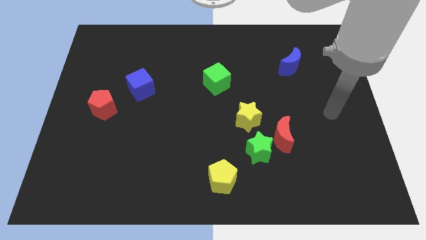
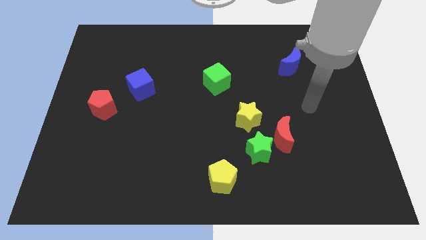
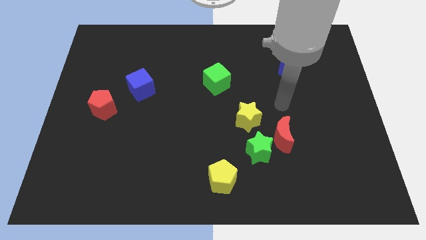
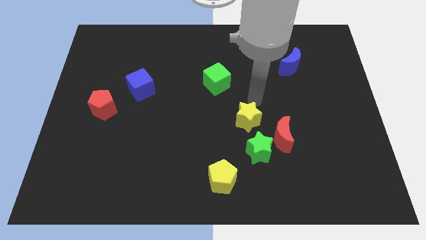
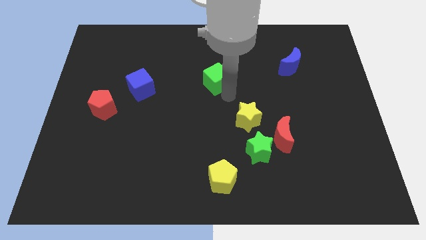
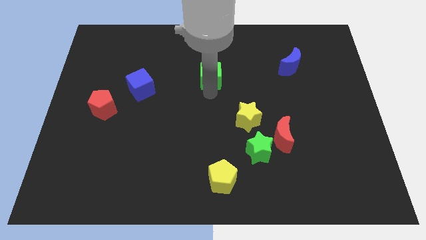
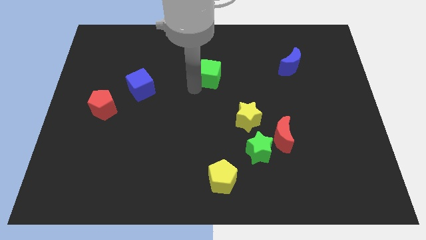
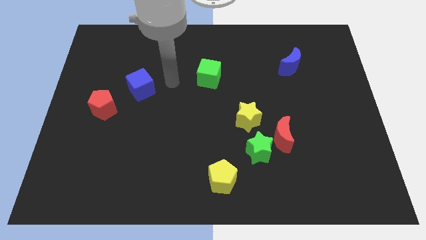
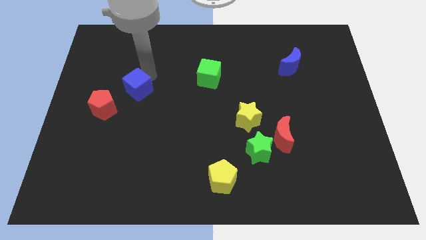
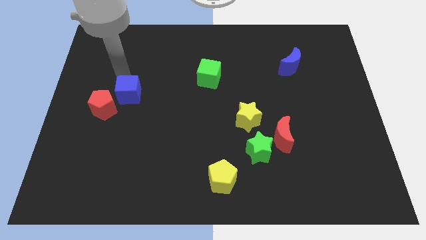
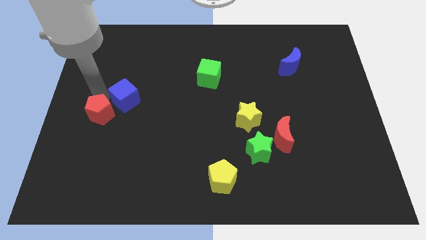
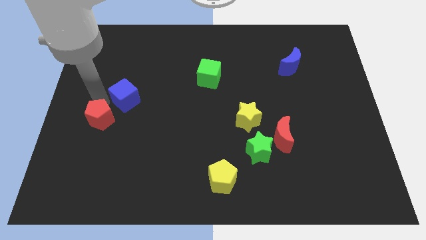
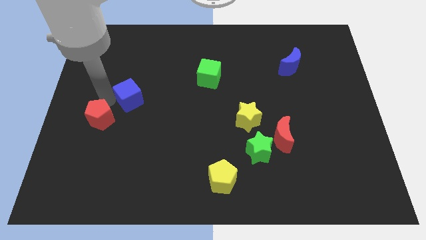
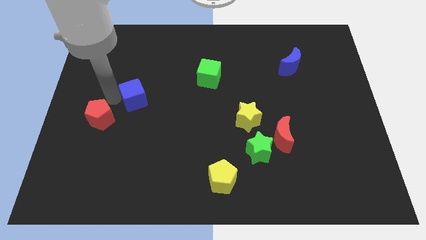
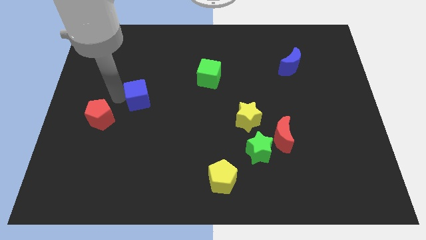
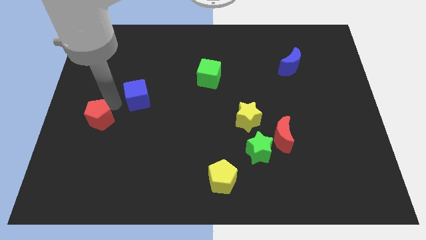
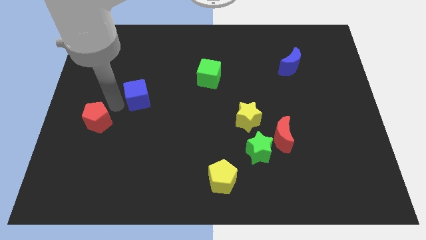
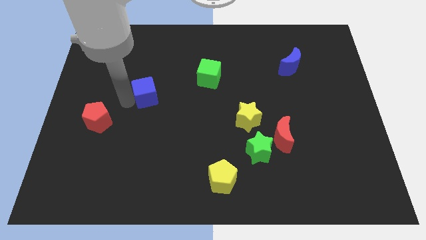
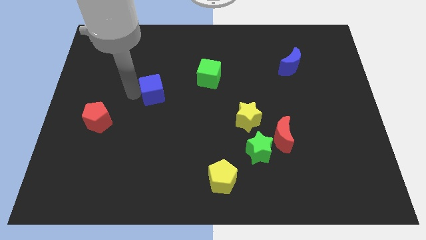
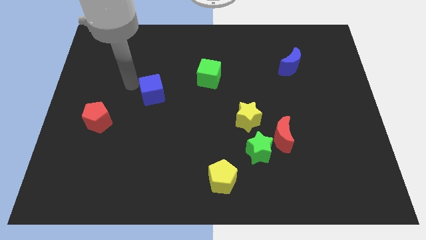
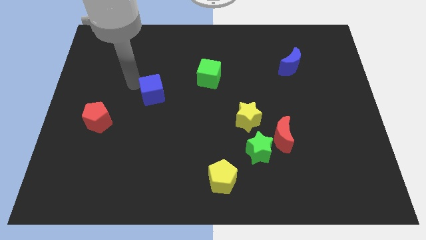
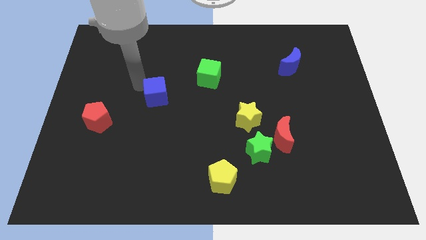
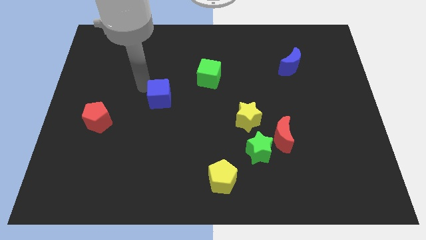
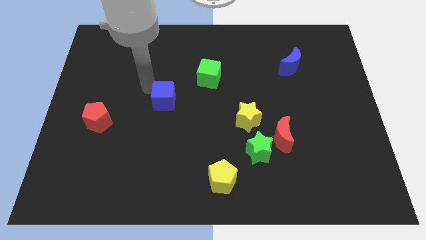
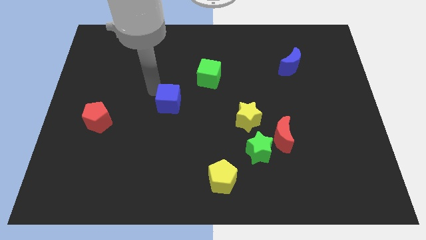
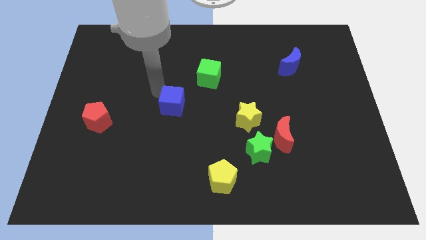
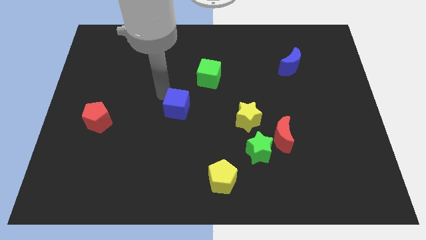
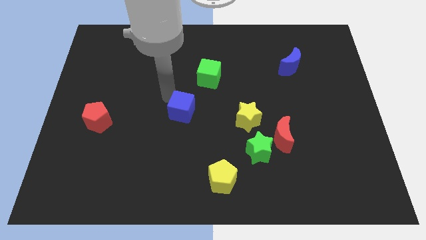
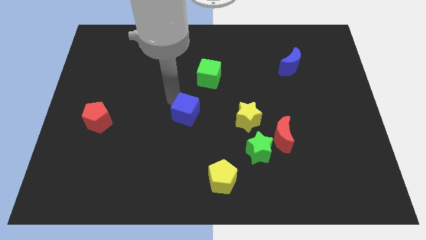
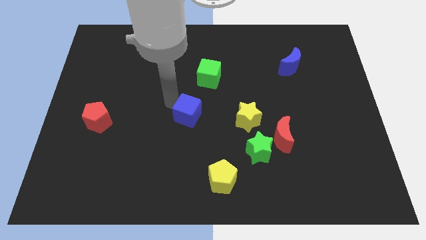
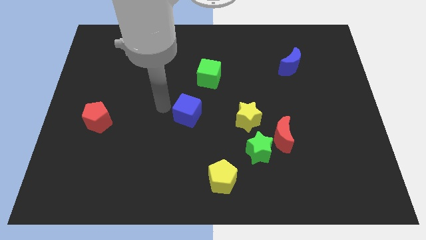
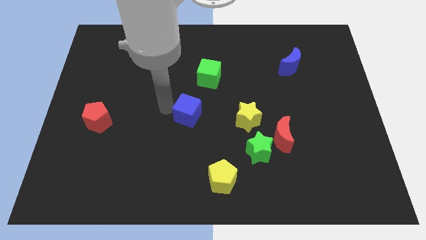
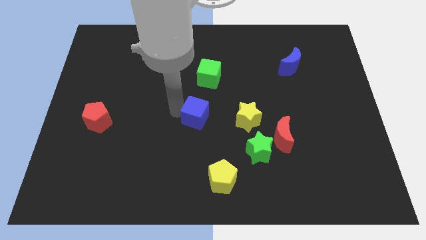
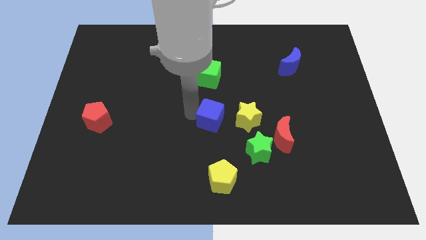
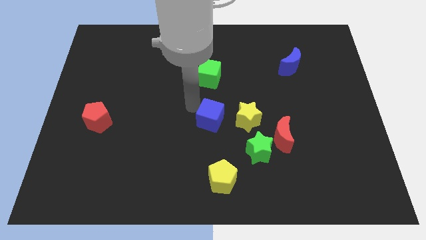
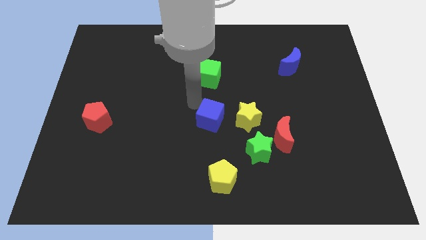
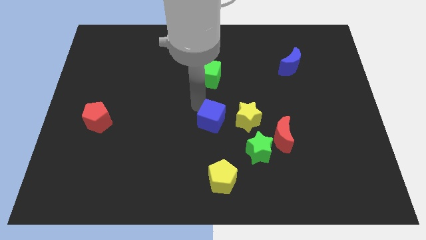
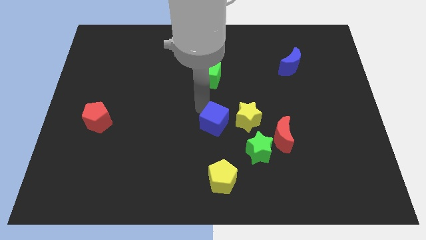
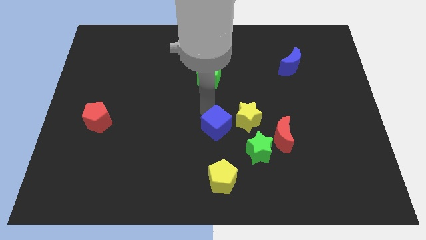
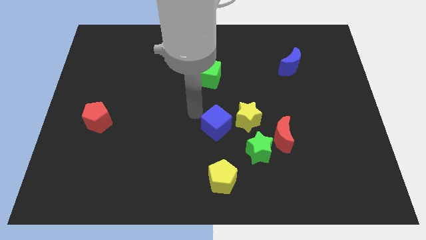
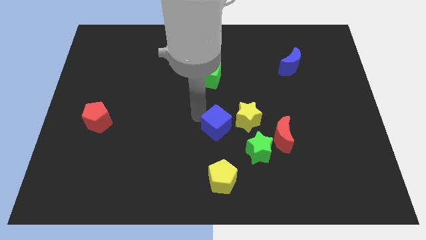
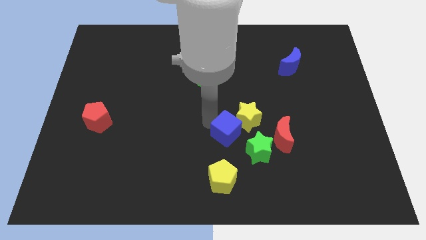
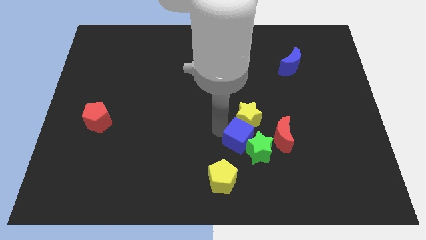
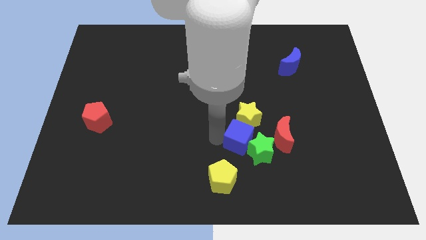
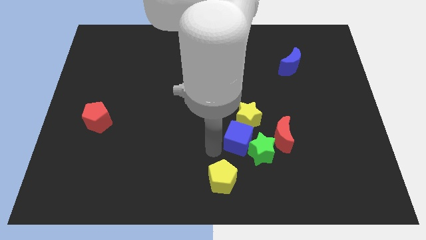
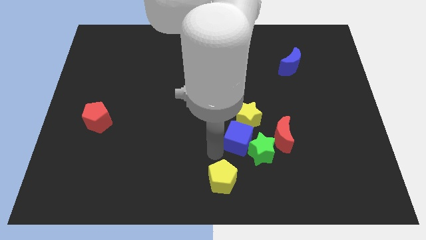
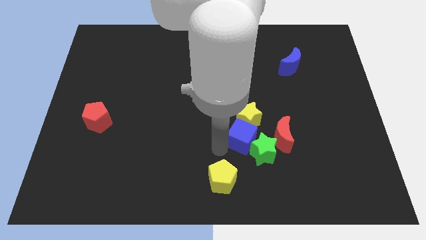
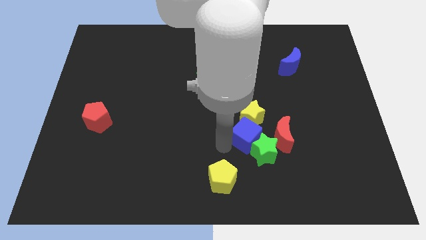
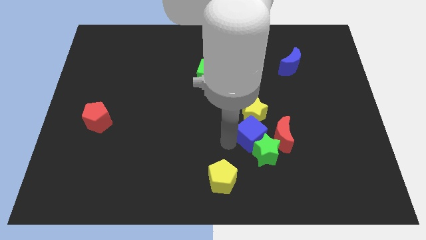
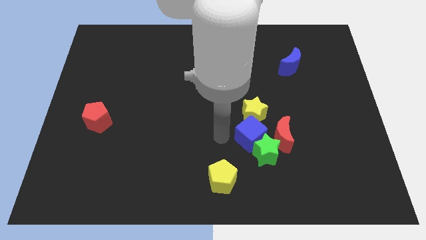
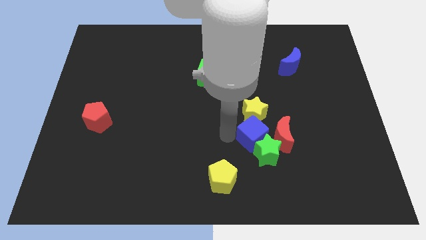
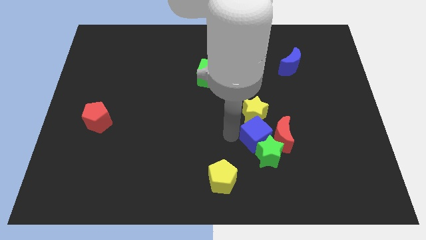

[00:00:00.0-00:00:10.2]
put the blue cube next to the red moon

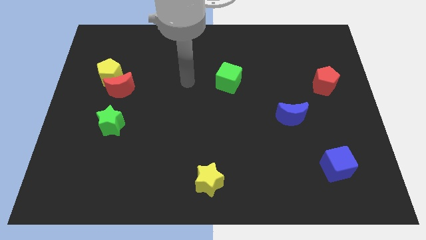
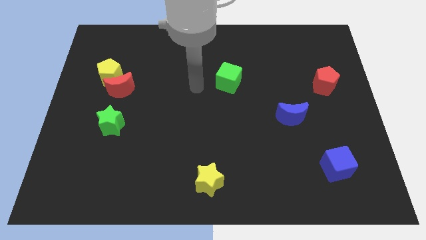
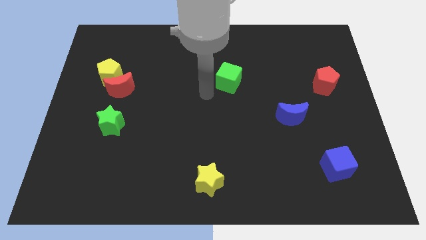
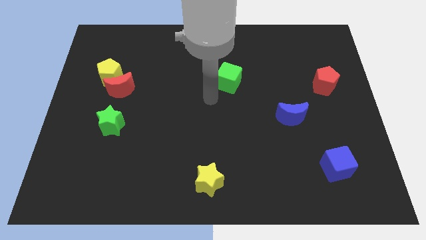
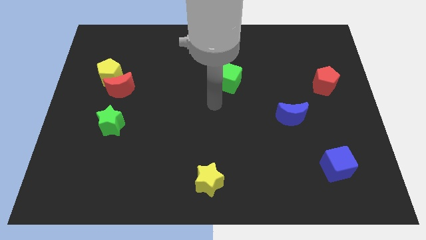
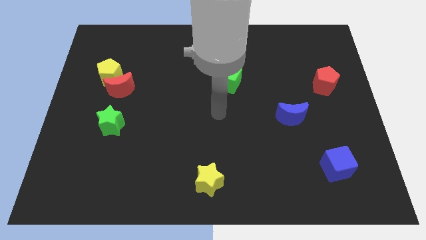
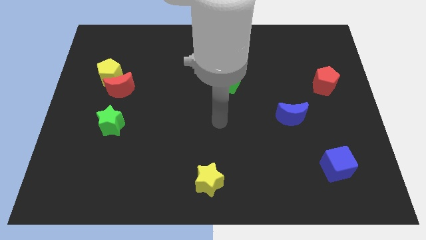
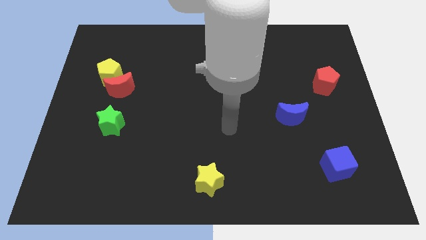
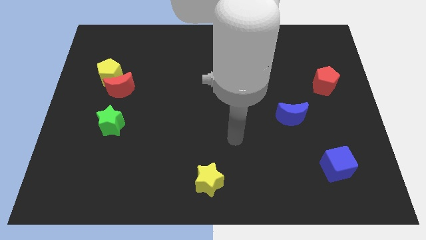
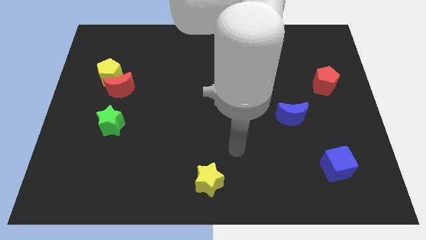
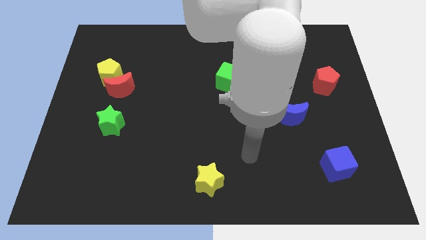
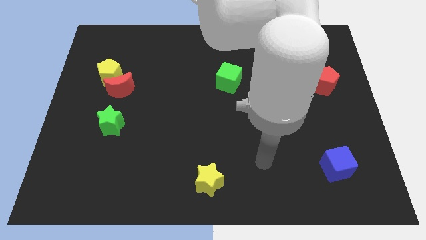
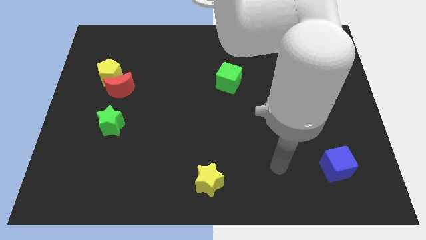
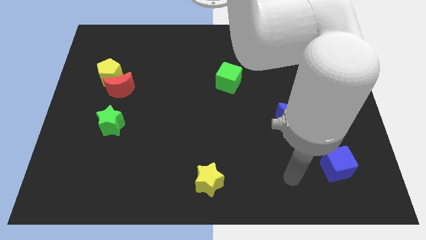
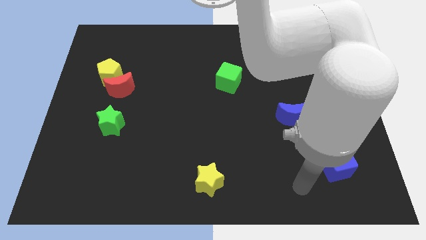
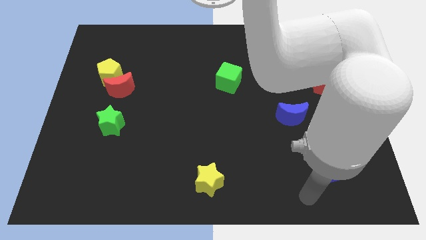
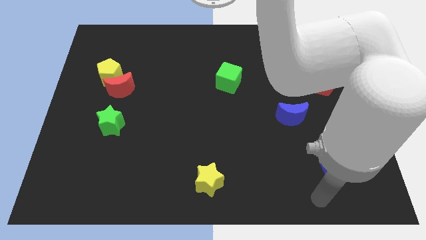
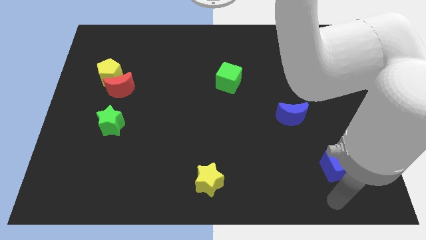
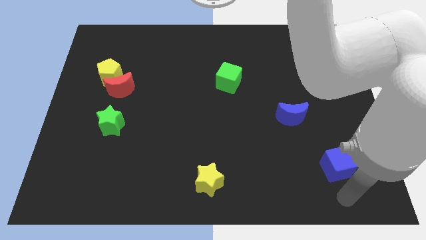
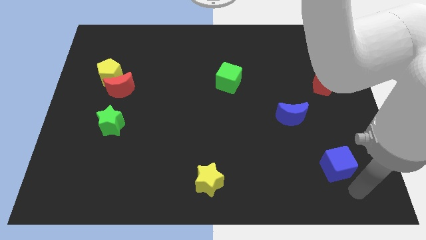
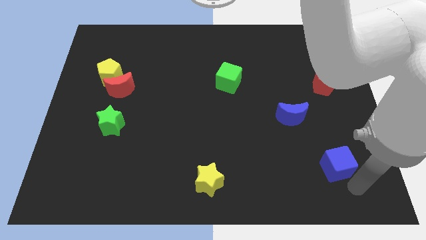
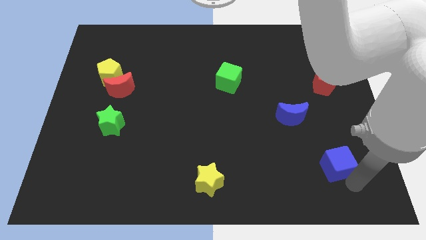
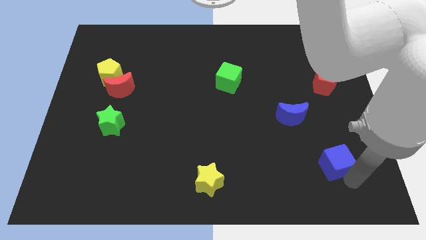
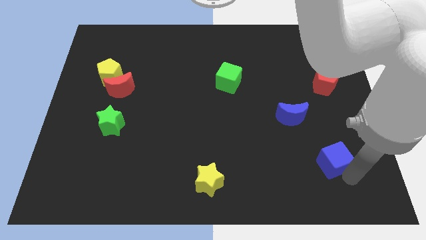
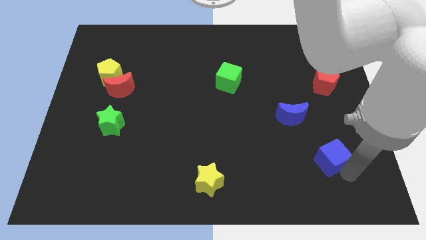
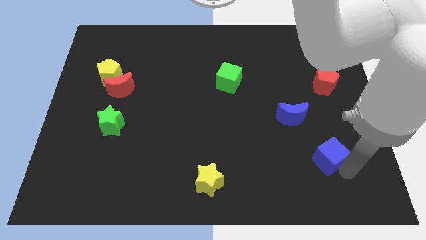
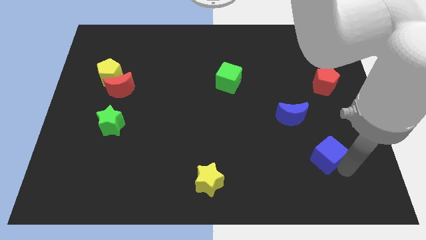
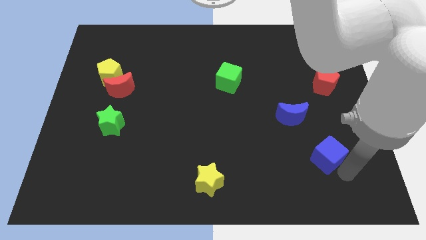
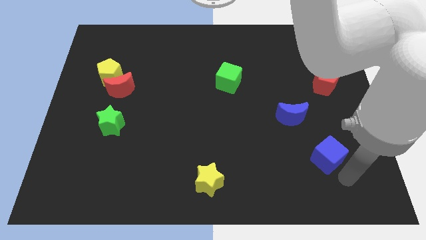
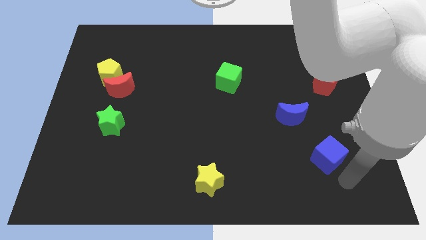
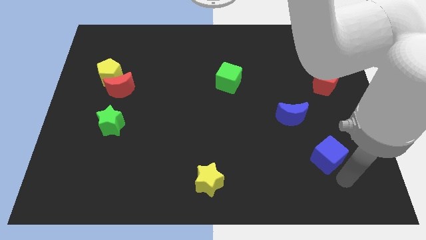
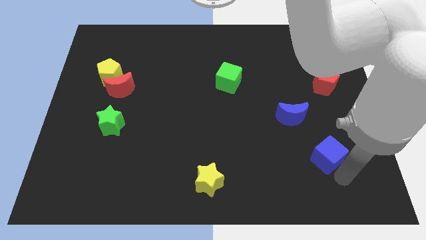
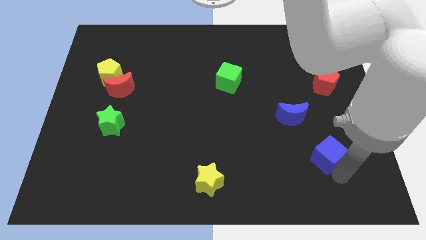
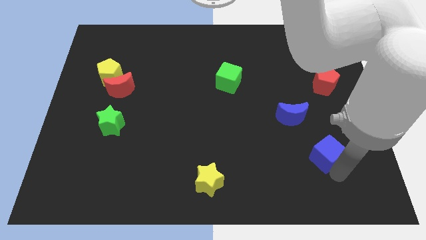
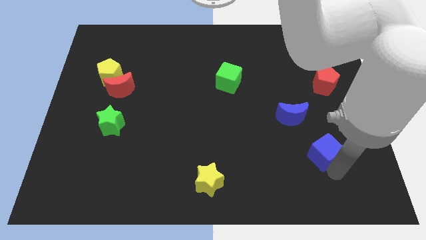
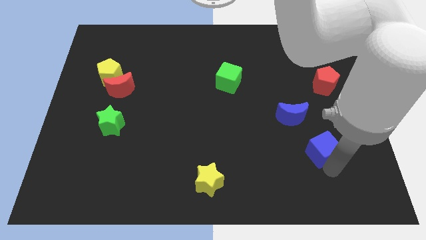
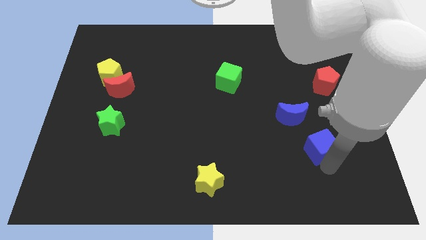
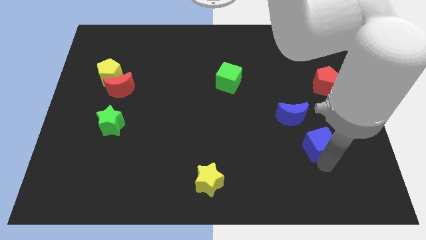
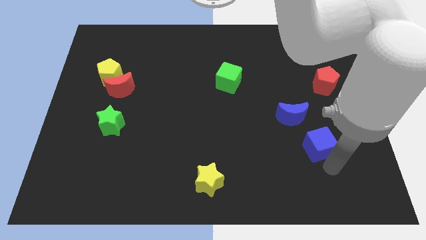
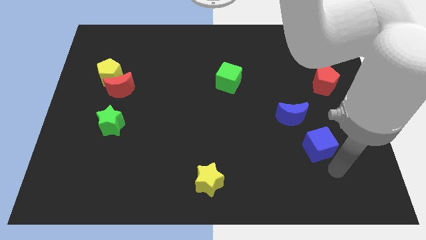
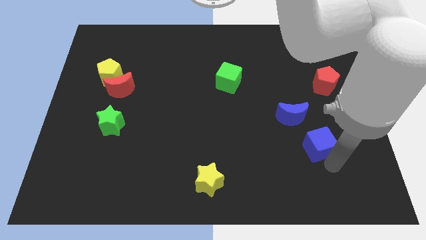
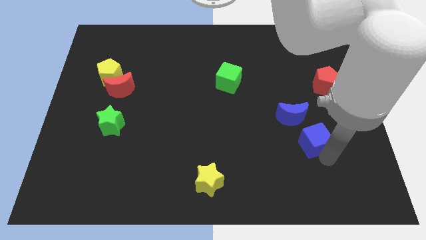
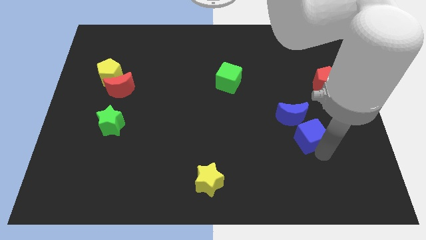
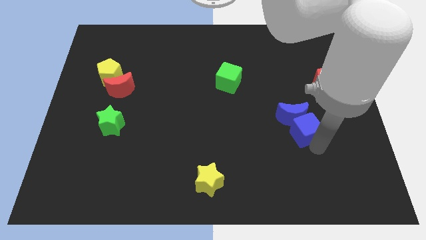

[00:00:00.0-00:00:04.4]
push the blue cube close to the blue moon
